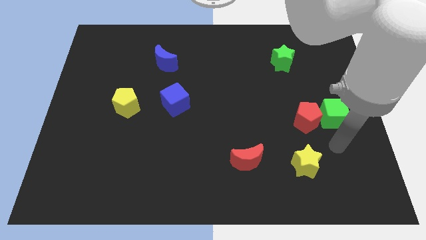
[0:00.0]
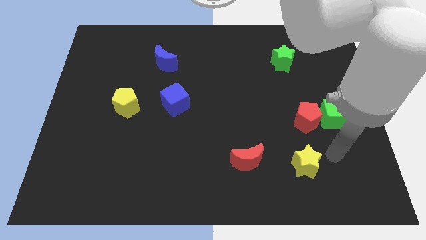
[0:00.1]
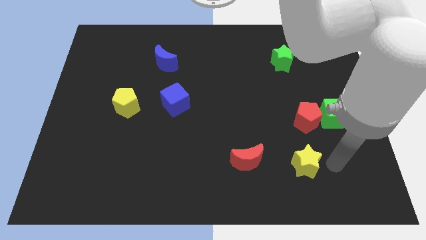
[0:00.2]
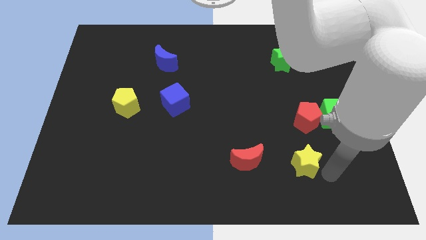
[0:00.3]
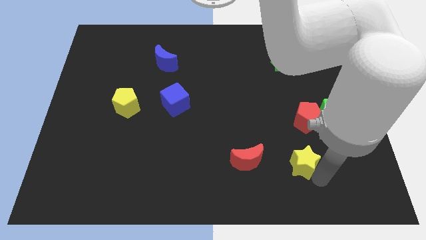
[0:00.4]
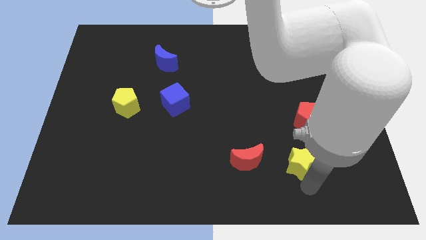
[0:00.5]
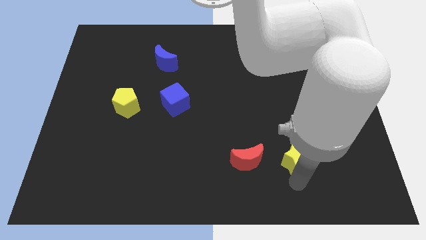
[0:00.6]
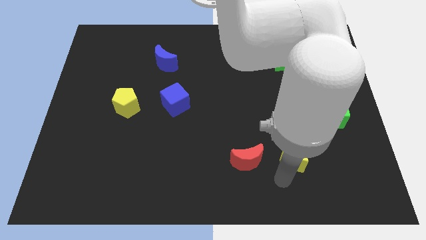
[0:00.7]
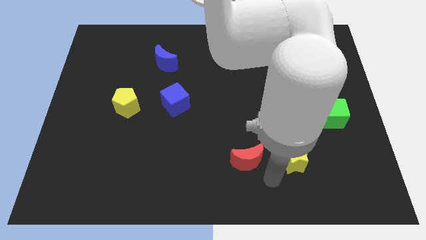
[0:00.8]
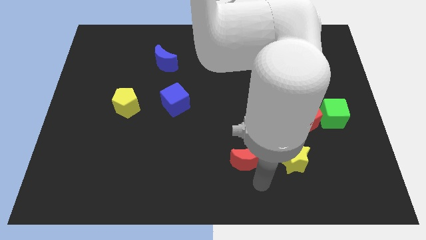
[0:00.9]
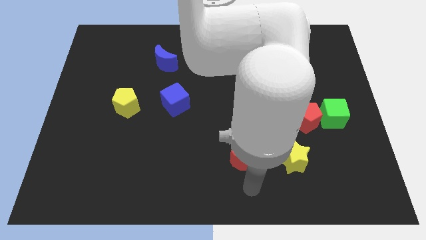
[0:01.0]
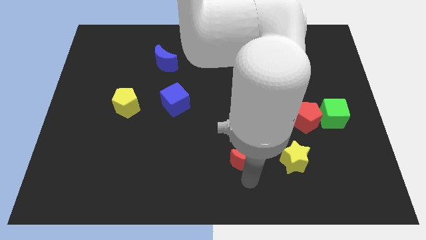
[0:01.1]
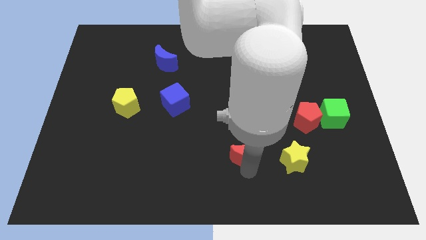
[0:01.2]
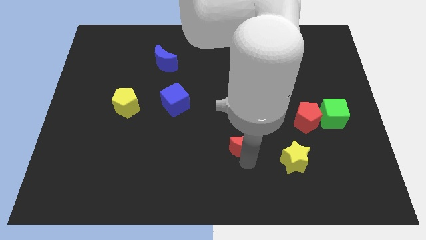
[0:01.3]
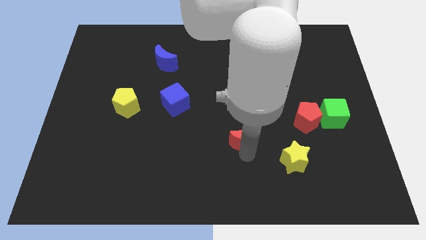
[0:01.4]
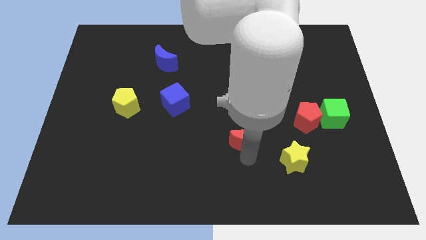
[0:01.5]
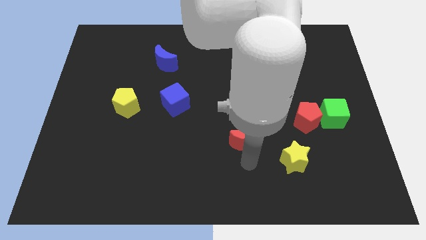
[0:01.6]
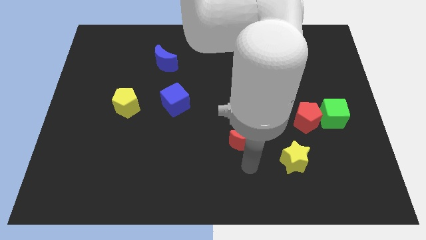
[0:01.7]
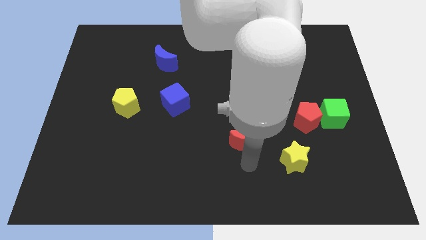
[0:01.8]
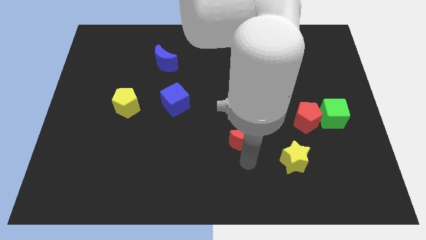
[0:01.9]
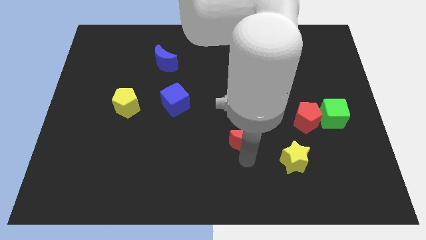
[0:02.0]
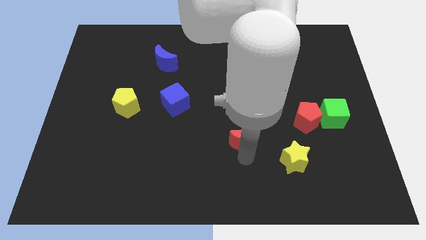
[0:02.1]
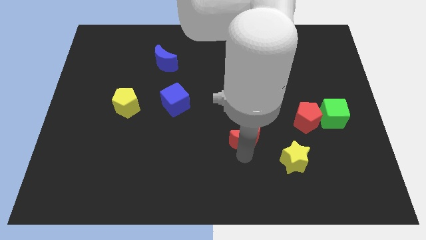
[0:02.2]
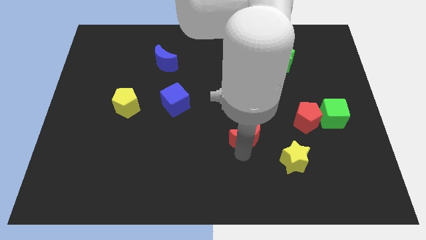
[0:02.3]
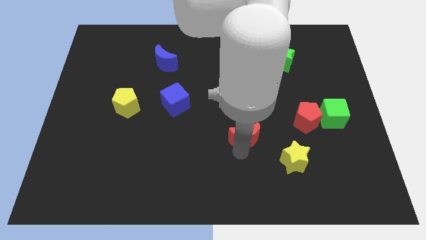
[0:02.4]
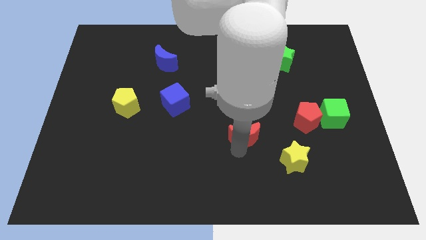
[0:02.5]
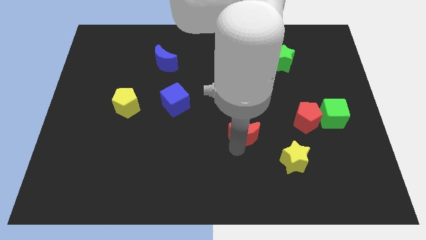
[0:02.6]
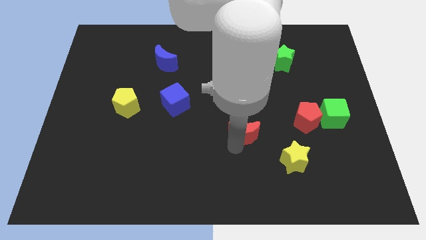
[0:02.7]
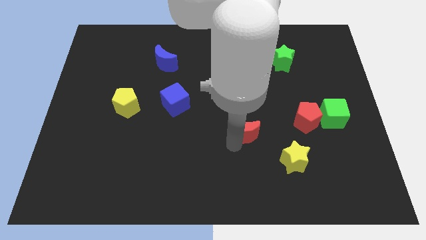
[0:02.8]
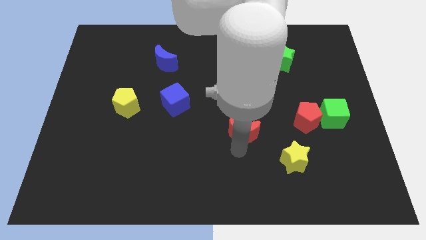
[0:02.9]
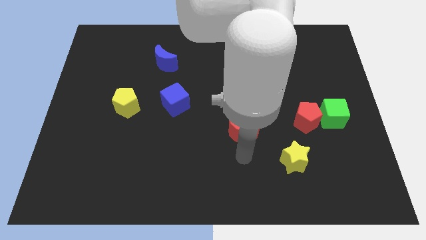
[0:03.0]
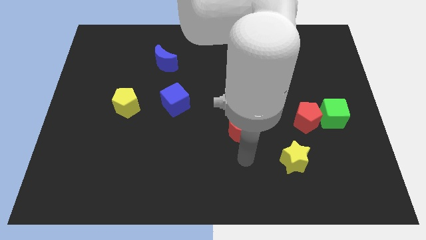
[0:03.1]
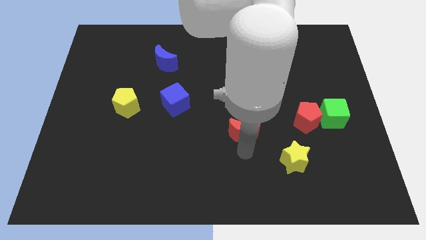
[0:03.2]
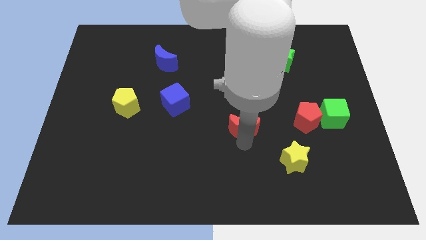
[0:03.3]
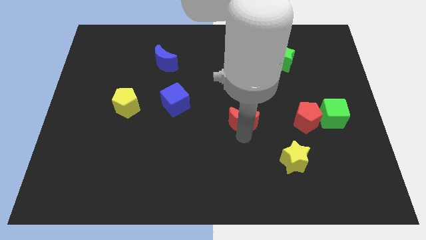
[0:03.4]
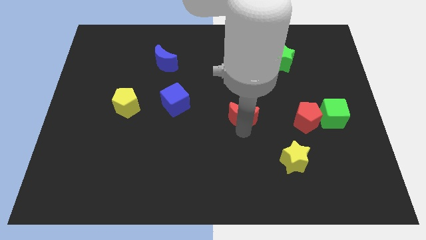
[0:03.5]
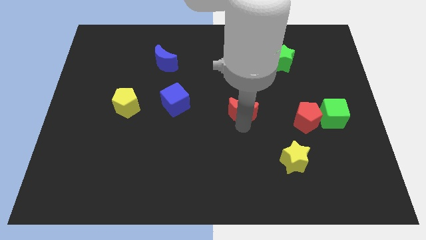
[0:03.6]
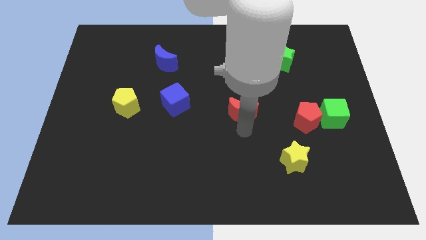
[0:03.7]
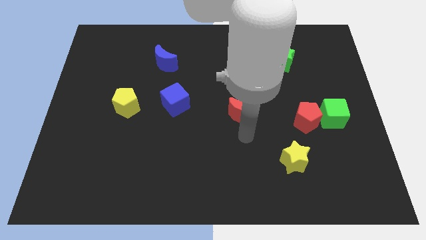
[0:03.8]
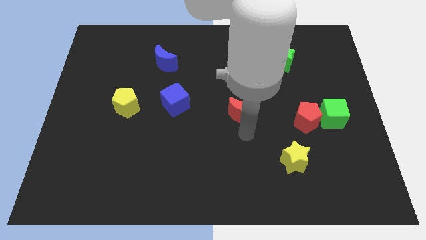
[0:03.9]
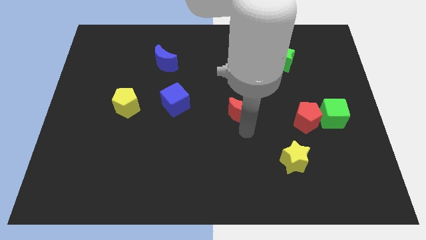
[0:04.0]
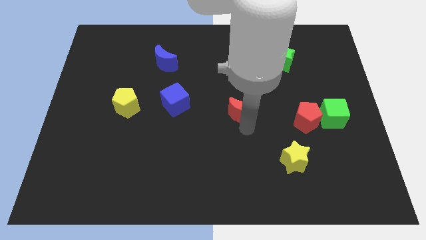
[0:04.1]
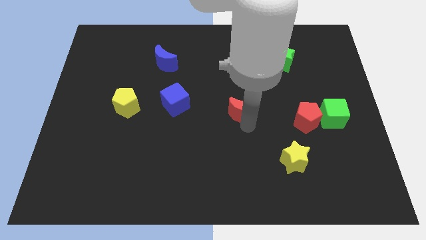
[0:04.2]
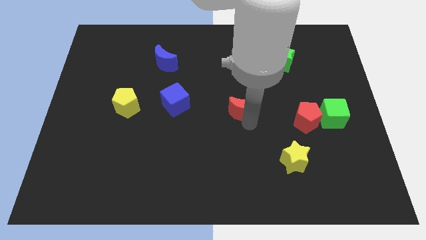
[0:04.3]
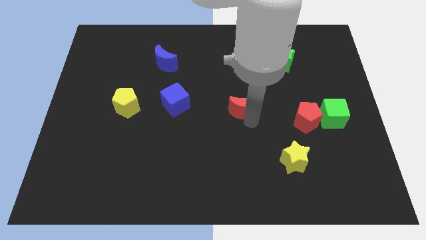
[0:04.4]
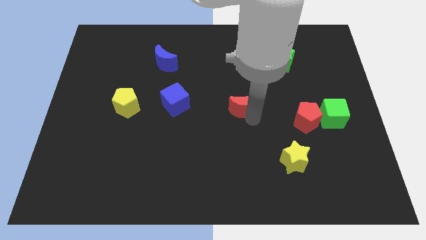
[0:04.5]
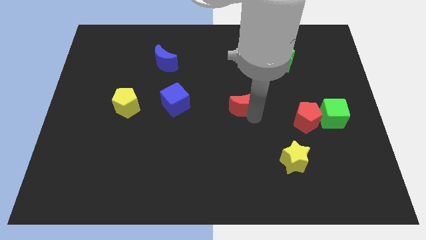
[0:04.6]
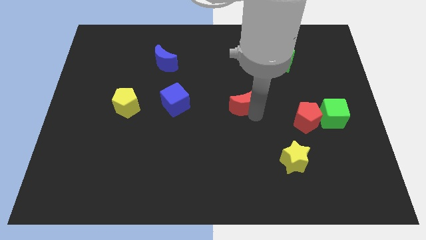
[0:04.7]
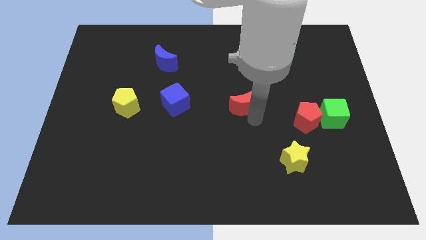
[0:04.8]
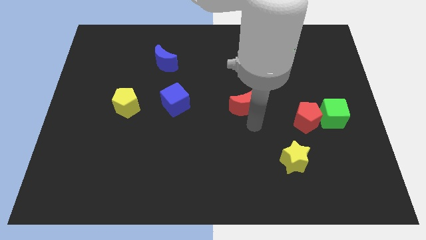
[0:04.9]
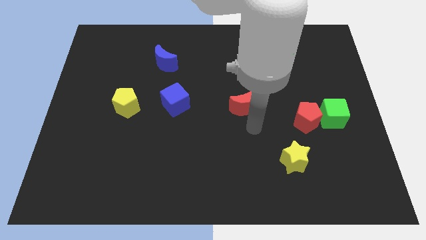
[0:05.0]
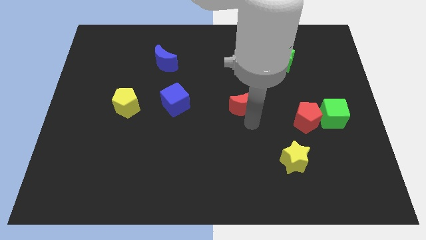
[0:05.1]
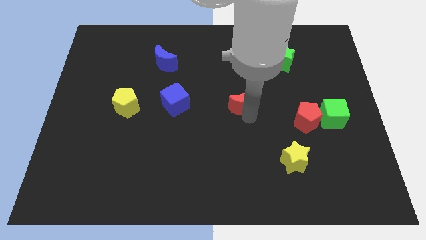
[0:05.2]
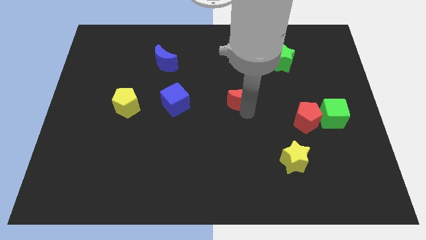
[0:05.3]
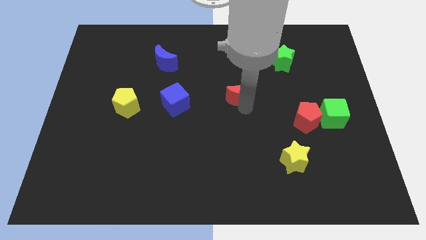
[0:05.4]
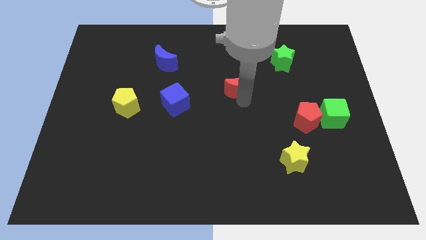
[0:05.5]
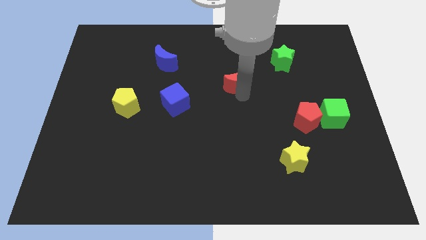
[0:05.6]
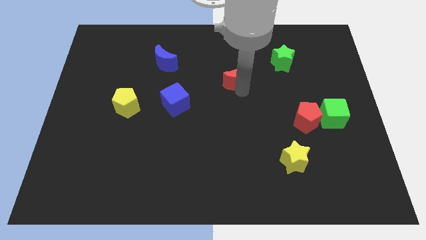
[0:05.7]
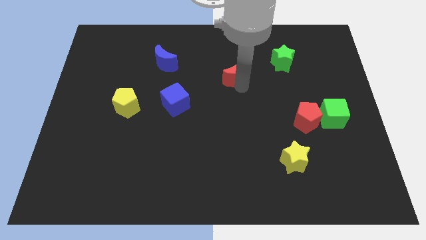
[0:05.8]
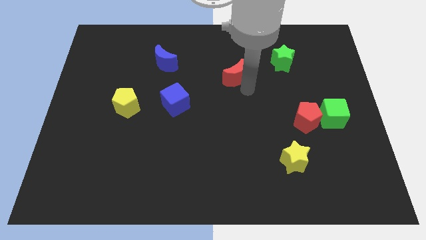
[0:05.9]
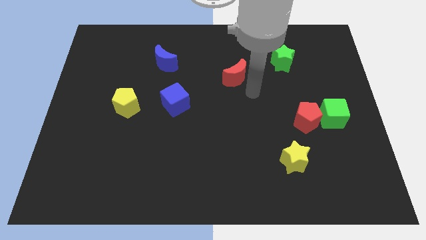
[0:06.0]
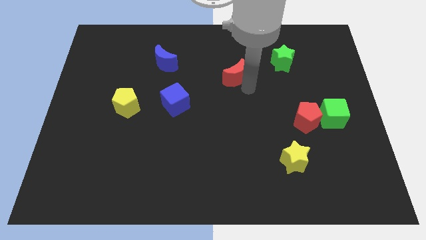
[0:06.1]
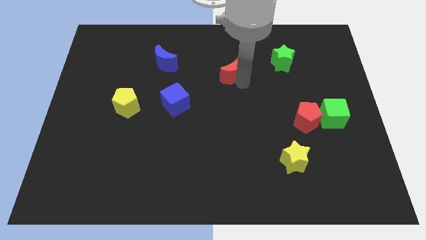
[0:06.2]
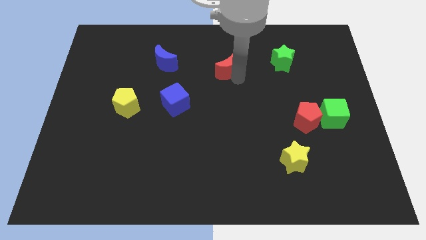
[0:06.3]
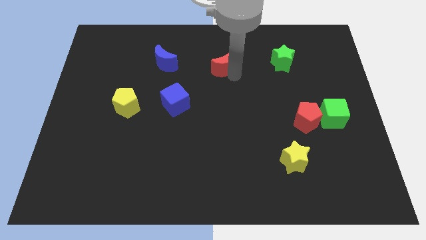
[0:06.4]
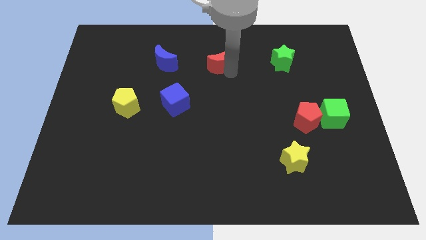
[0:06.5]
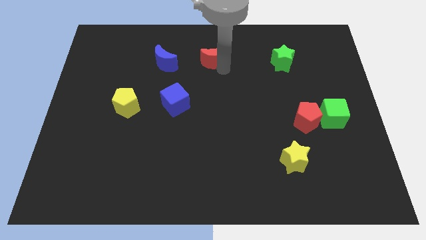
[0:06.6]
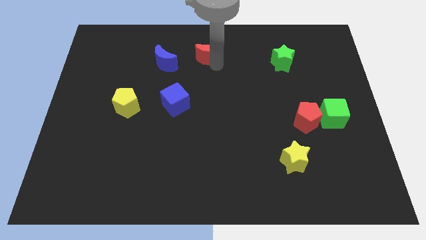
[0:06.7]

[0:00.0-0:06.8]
move the red moon to the top
